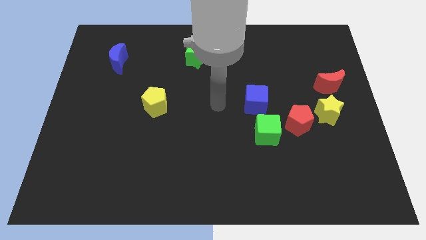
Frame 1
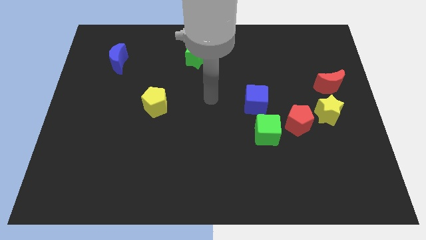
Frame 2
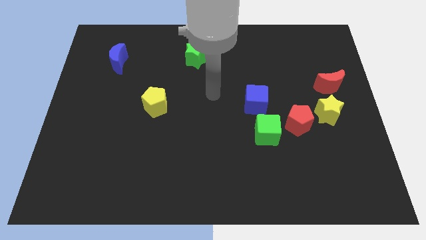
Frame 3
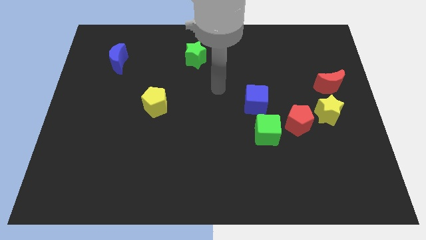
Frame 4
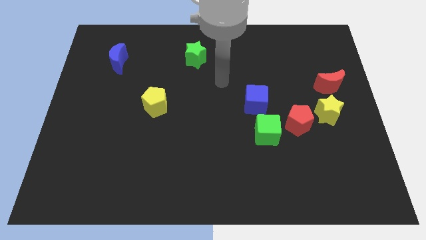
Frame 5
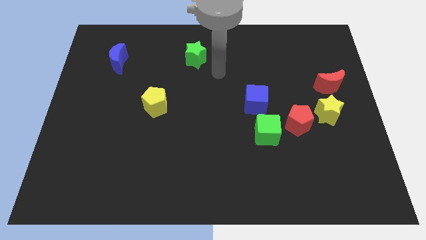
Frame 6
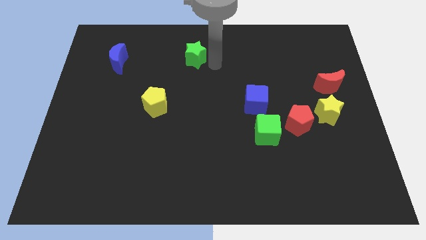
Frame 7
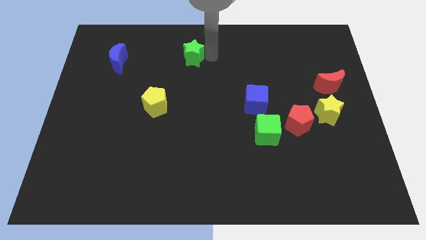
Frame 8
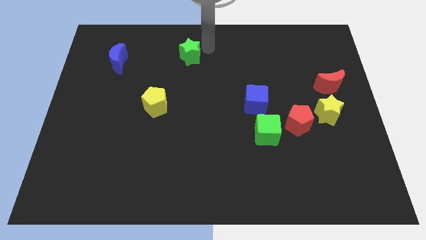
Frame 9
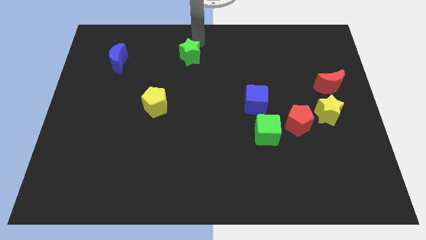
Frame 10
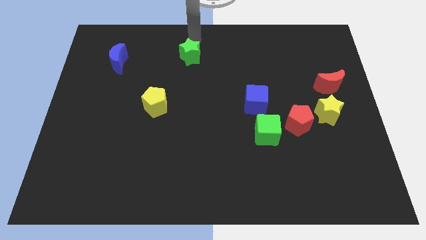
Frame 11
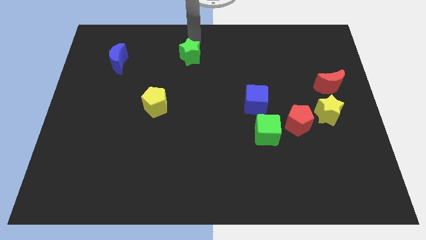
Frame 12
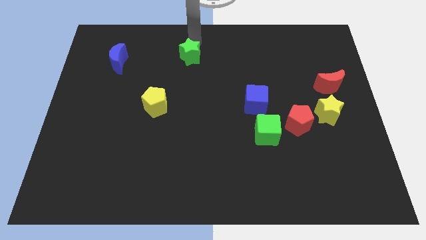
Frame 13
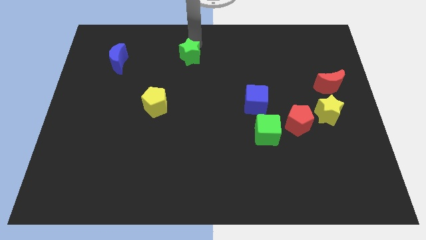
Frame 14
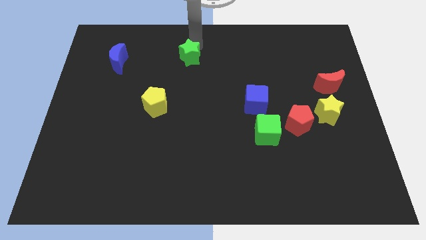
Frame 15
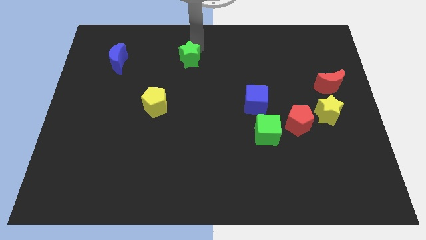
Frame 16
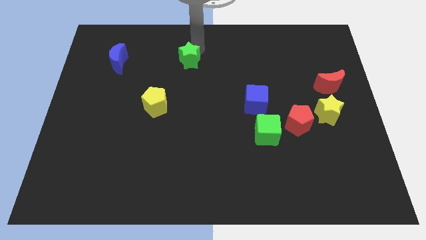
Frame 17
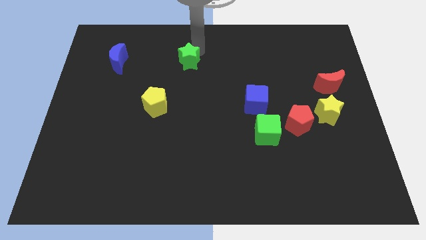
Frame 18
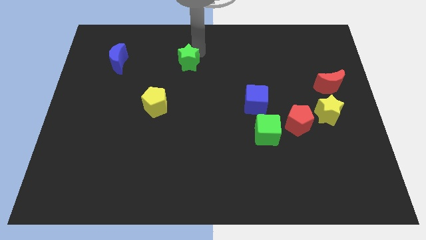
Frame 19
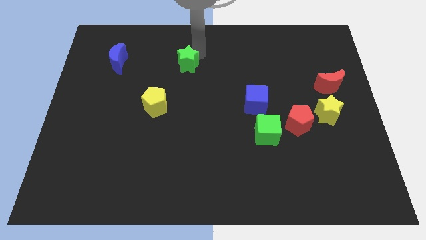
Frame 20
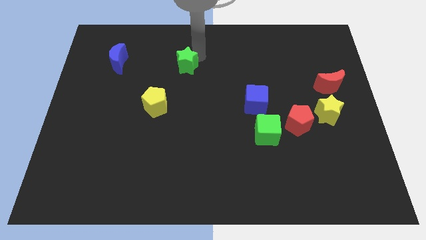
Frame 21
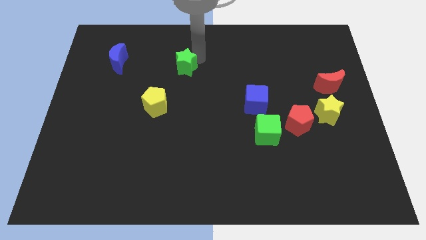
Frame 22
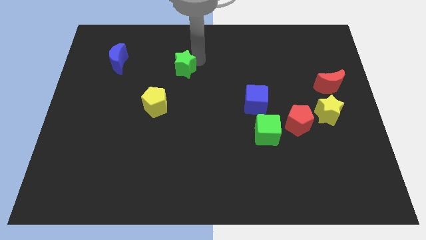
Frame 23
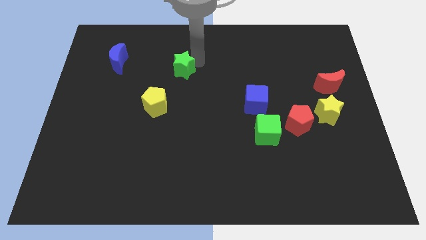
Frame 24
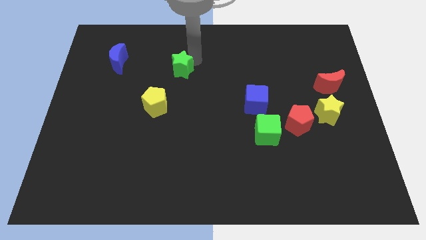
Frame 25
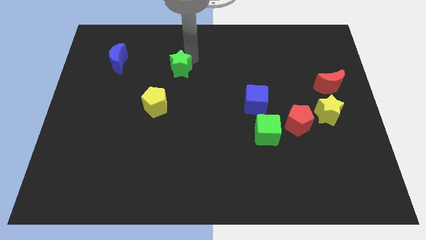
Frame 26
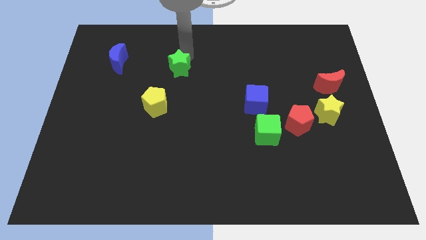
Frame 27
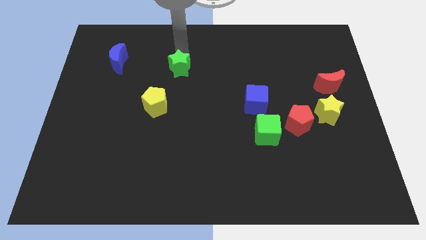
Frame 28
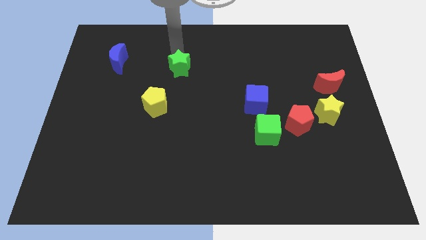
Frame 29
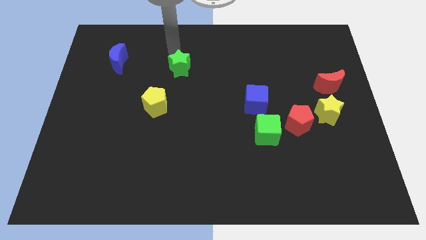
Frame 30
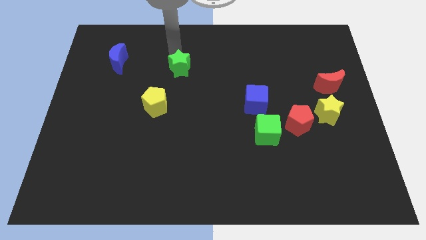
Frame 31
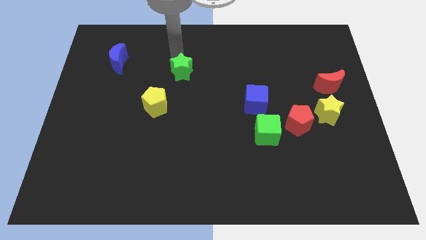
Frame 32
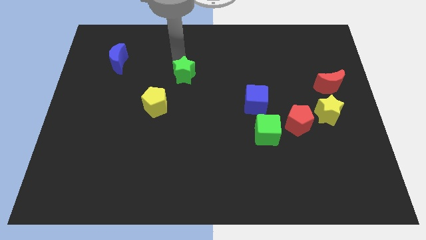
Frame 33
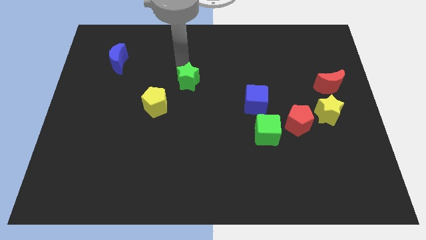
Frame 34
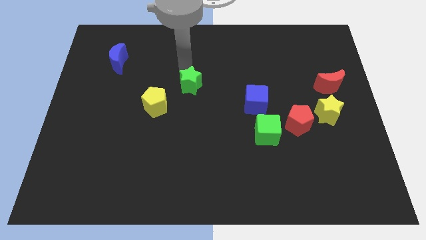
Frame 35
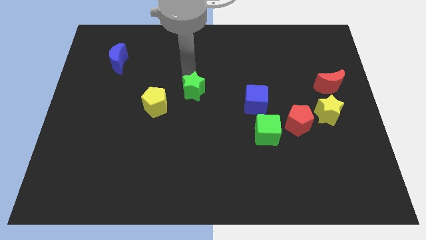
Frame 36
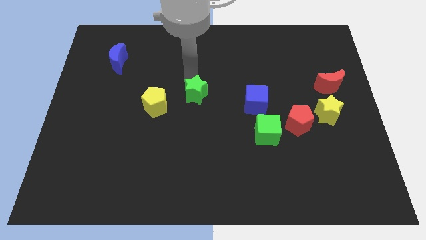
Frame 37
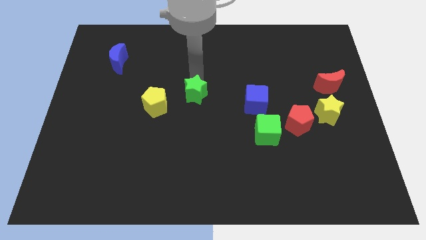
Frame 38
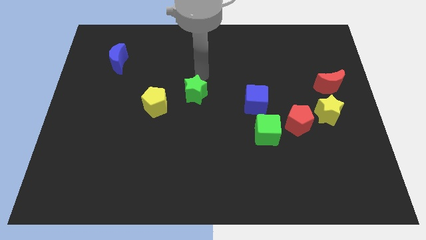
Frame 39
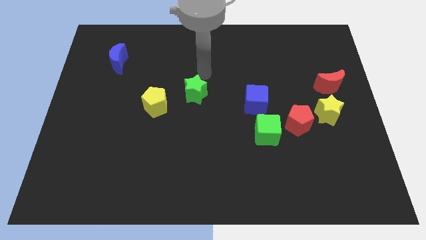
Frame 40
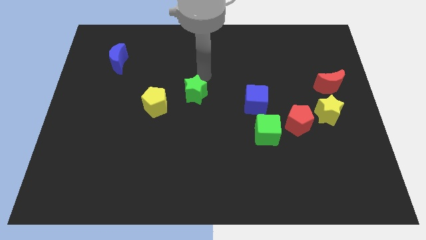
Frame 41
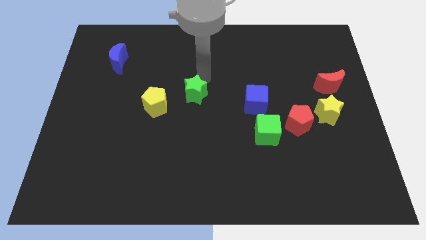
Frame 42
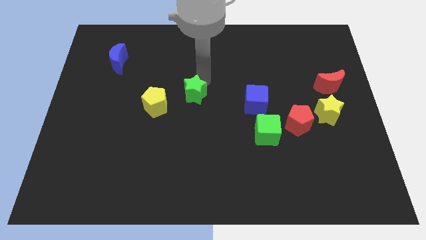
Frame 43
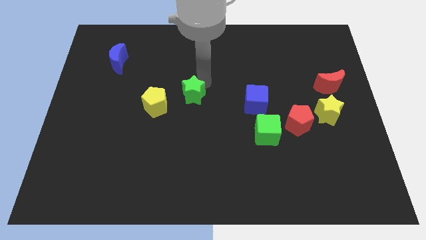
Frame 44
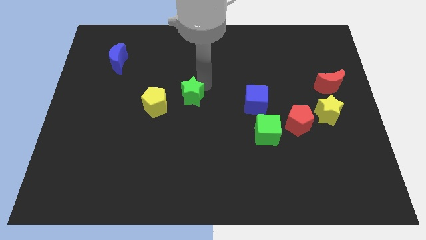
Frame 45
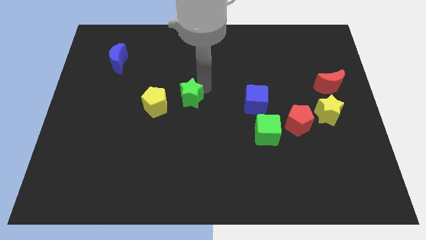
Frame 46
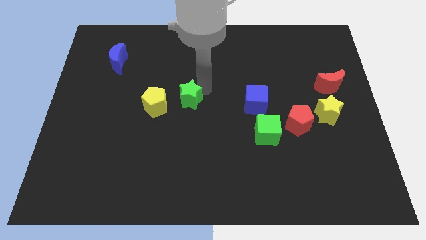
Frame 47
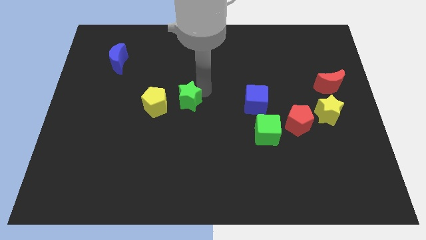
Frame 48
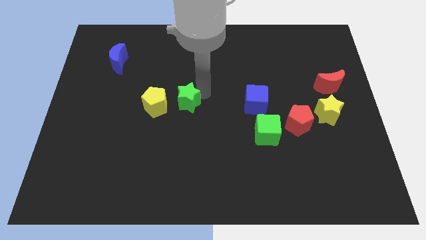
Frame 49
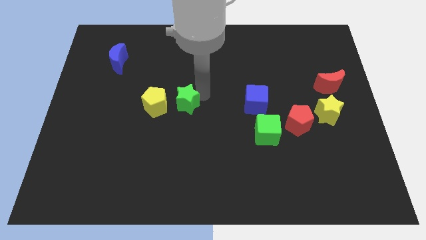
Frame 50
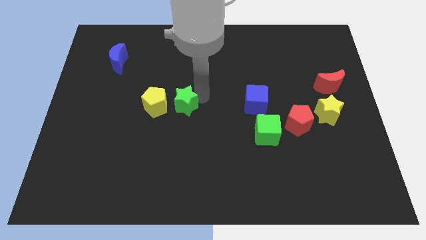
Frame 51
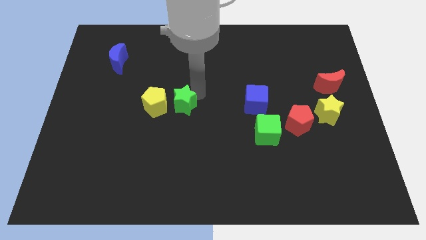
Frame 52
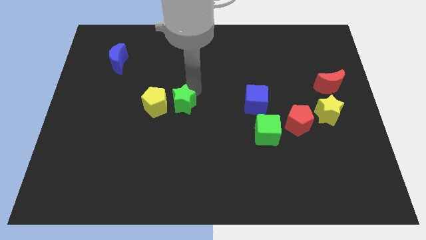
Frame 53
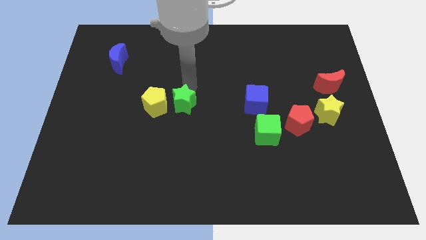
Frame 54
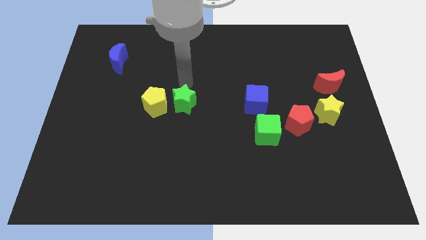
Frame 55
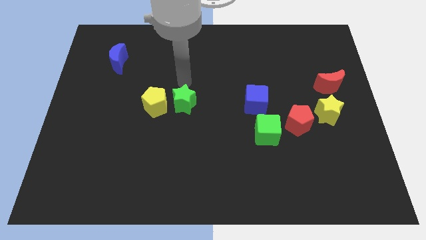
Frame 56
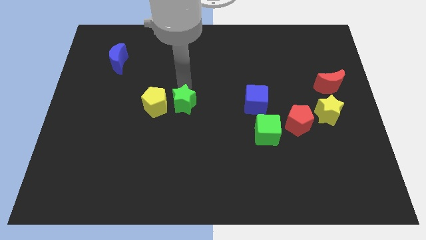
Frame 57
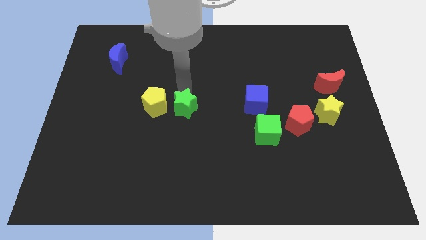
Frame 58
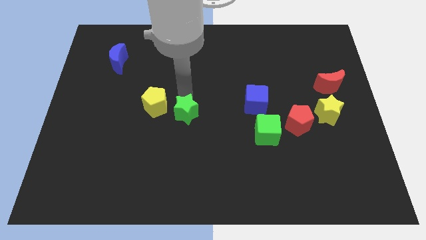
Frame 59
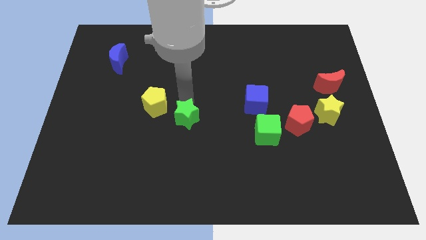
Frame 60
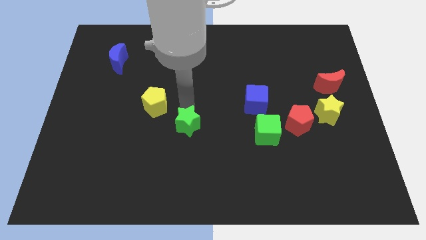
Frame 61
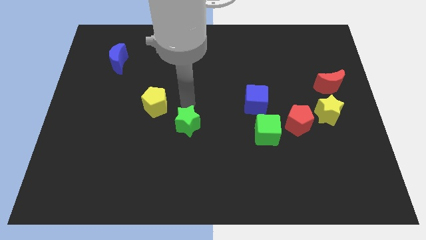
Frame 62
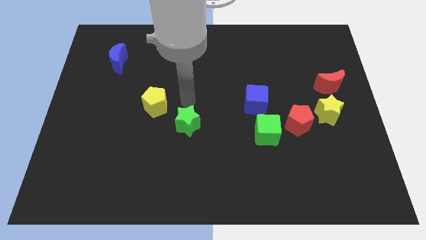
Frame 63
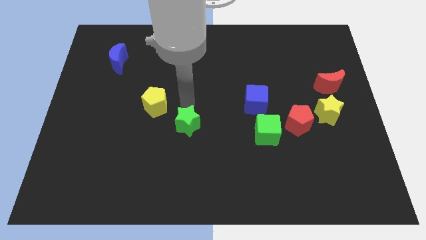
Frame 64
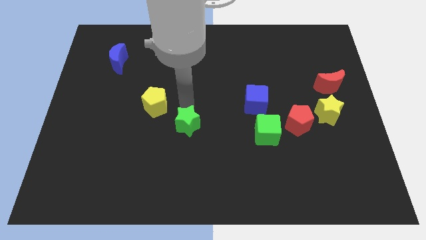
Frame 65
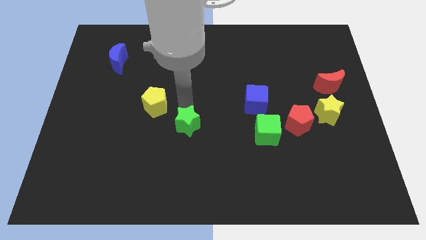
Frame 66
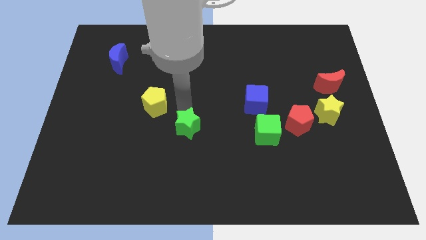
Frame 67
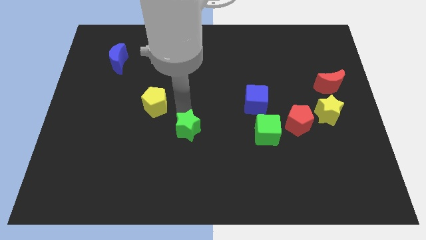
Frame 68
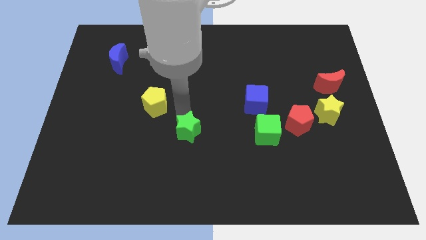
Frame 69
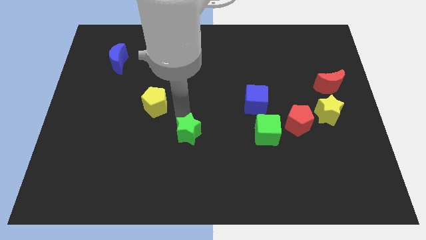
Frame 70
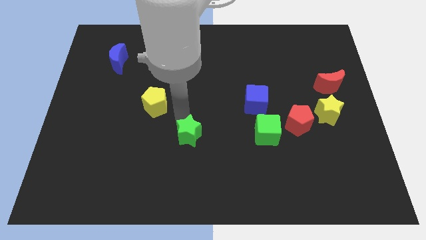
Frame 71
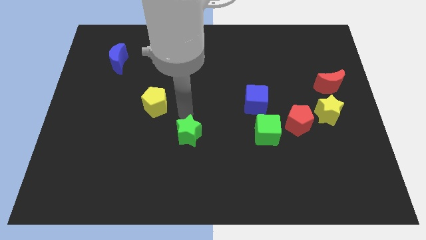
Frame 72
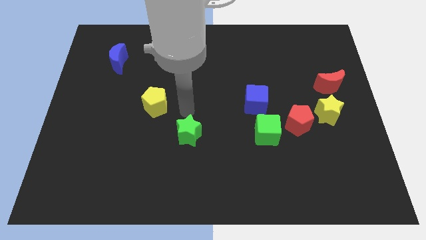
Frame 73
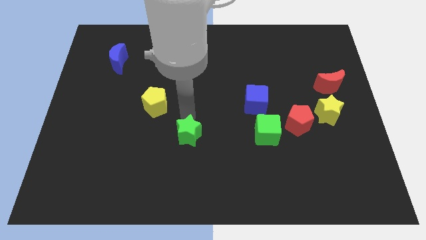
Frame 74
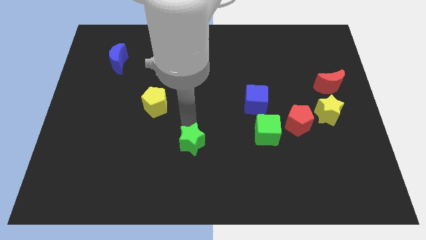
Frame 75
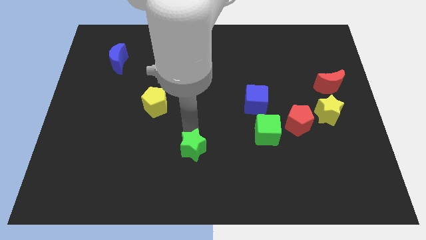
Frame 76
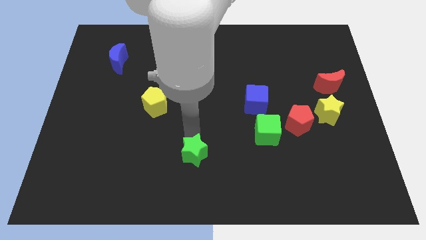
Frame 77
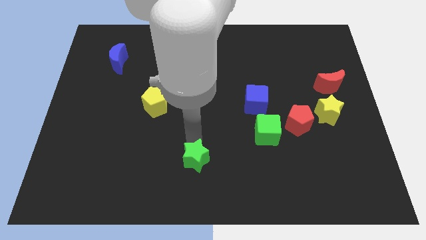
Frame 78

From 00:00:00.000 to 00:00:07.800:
push the green star to the bottom
